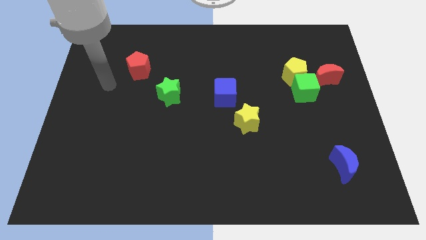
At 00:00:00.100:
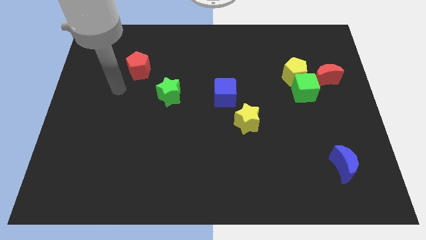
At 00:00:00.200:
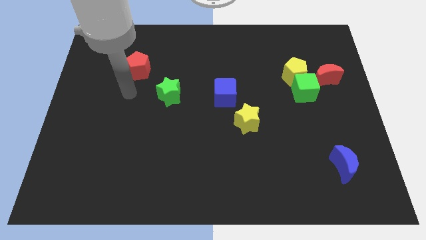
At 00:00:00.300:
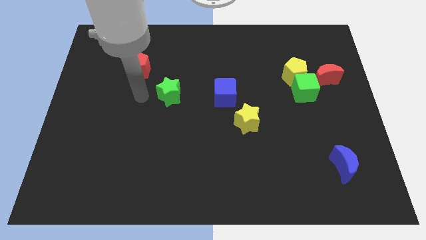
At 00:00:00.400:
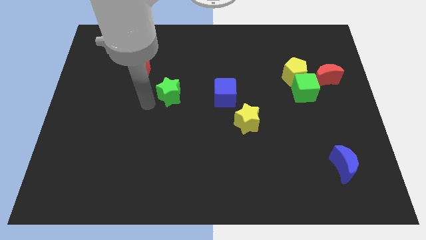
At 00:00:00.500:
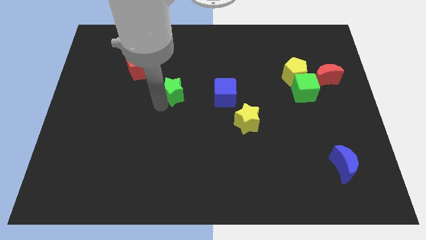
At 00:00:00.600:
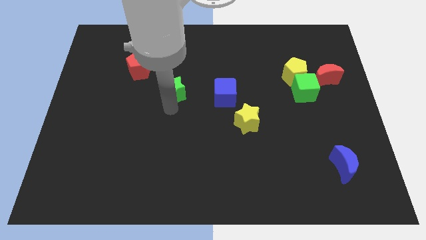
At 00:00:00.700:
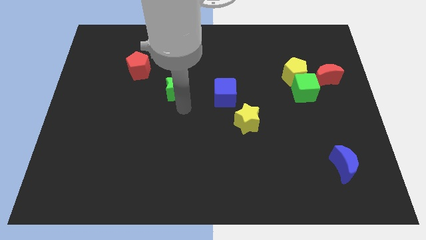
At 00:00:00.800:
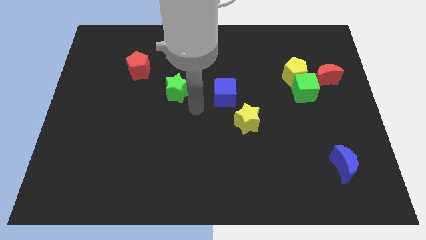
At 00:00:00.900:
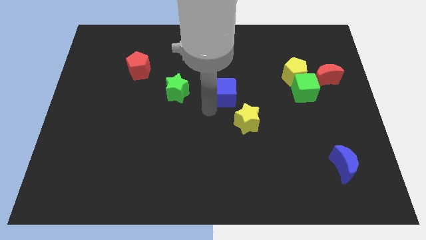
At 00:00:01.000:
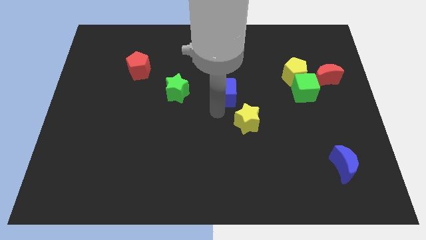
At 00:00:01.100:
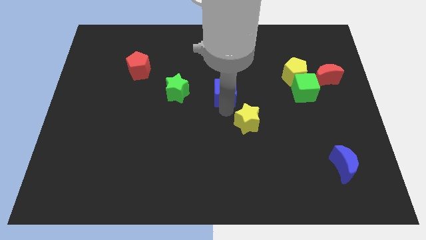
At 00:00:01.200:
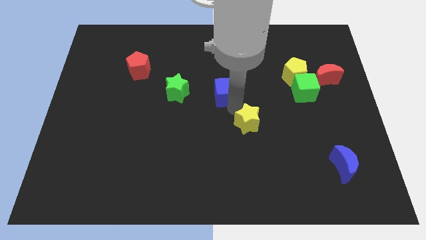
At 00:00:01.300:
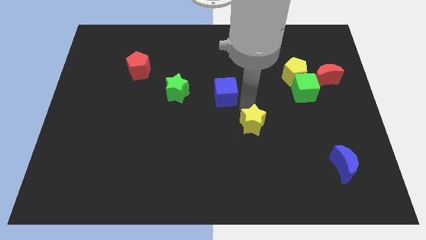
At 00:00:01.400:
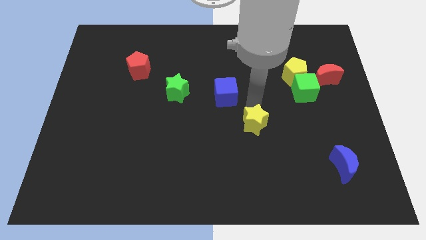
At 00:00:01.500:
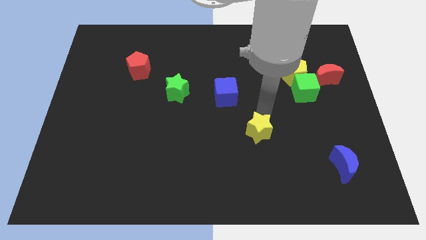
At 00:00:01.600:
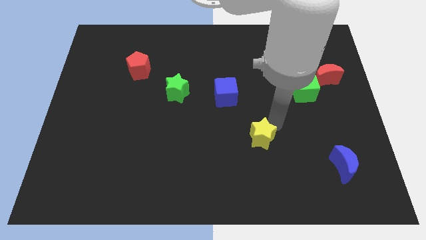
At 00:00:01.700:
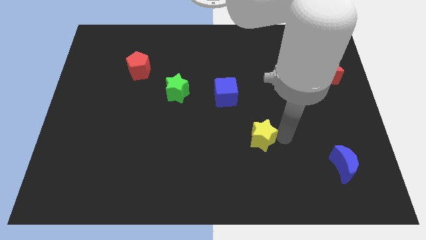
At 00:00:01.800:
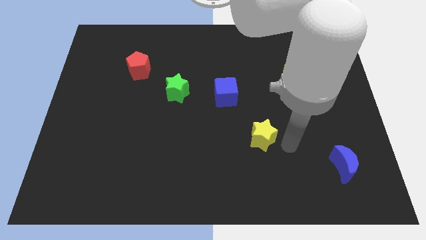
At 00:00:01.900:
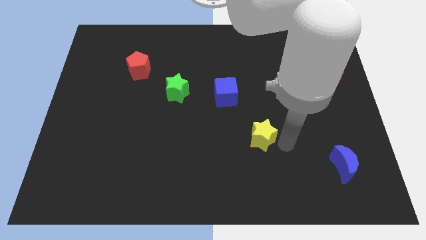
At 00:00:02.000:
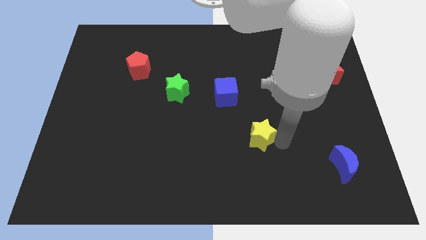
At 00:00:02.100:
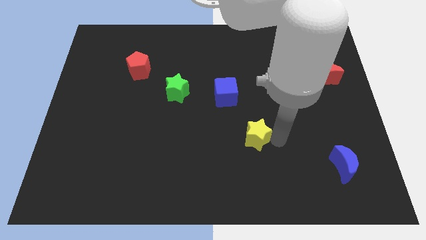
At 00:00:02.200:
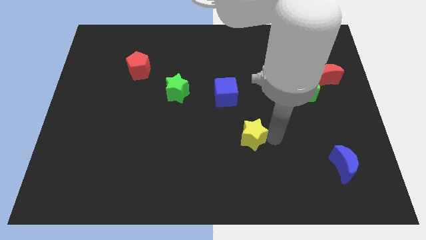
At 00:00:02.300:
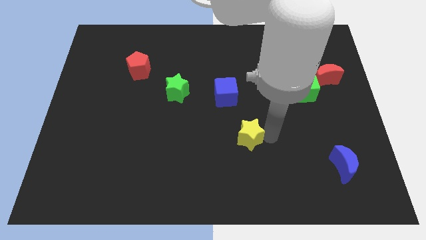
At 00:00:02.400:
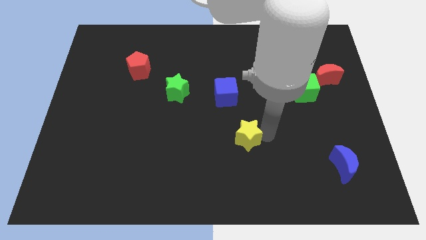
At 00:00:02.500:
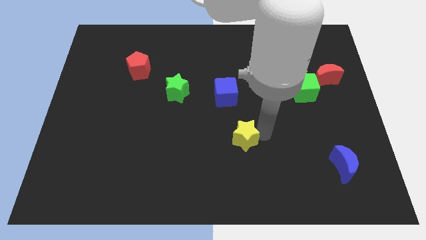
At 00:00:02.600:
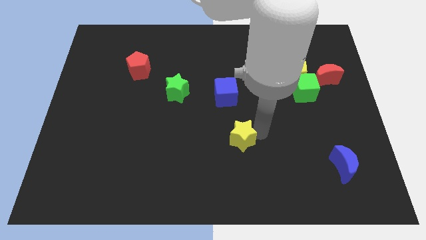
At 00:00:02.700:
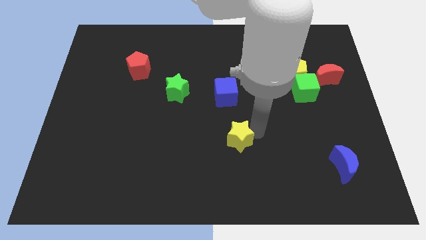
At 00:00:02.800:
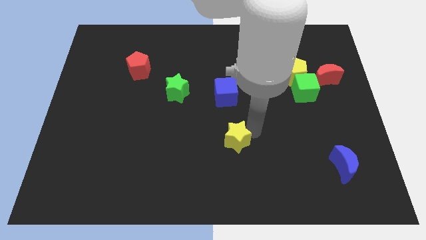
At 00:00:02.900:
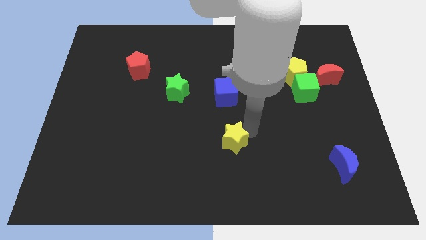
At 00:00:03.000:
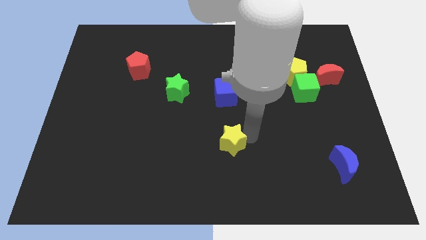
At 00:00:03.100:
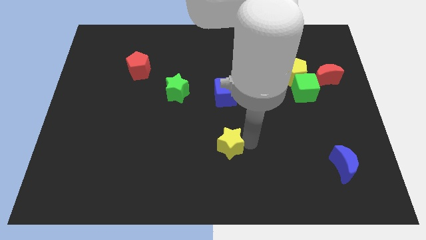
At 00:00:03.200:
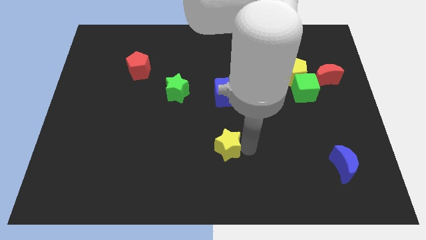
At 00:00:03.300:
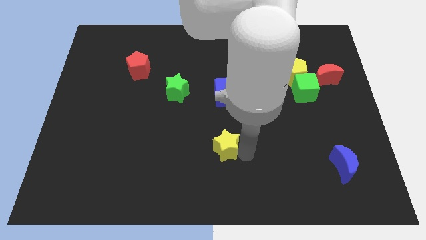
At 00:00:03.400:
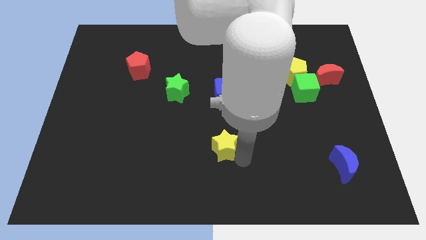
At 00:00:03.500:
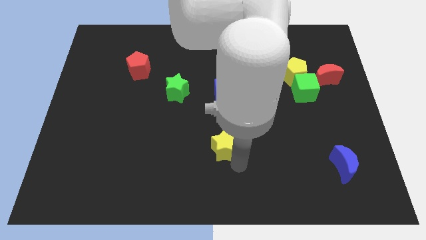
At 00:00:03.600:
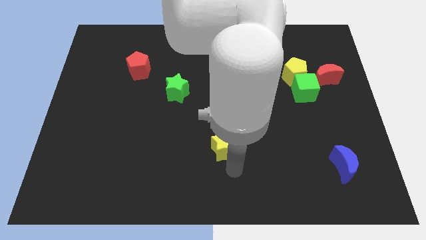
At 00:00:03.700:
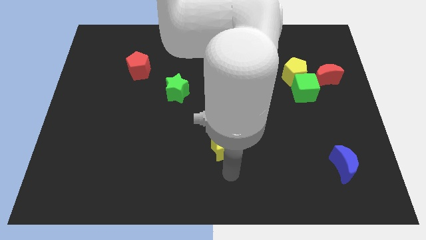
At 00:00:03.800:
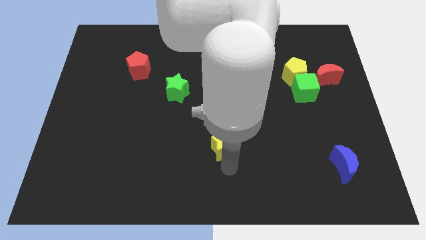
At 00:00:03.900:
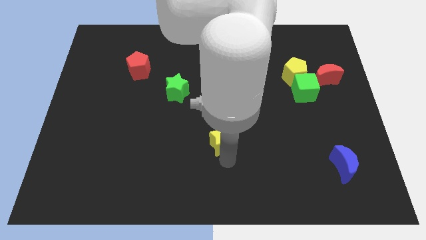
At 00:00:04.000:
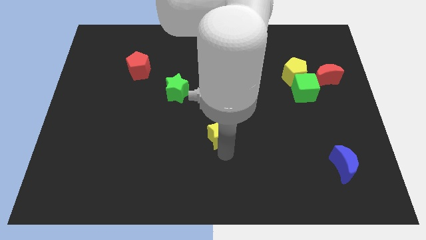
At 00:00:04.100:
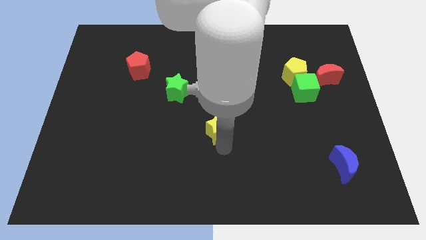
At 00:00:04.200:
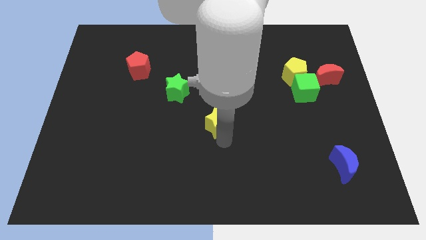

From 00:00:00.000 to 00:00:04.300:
slightly slide the yellow star left

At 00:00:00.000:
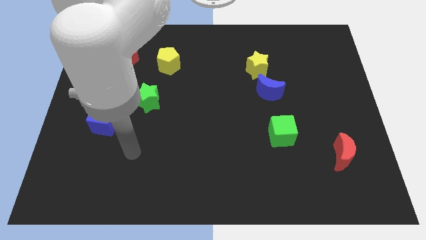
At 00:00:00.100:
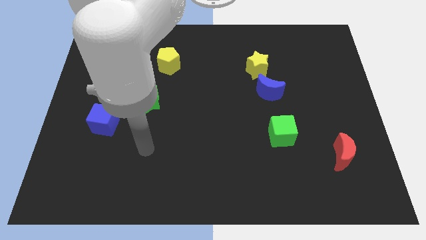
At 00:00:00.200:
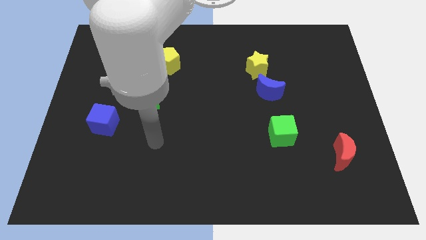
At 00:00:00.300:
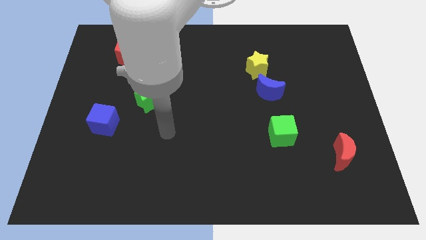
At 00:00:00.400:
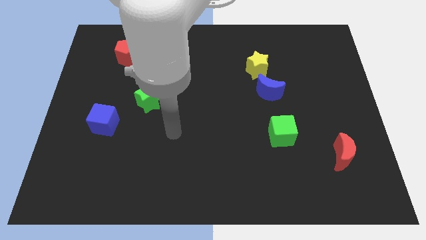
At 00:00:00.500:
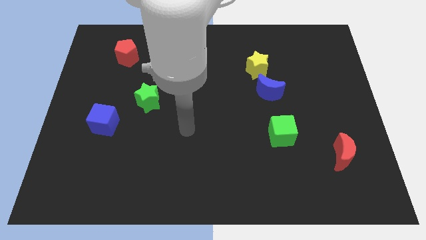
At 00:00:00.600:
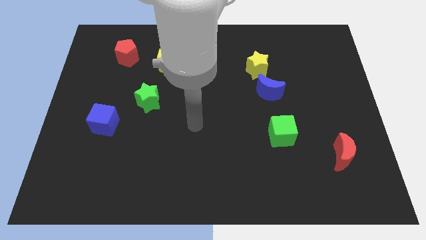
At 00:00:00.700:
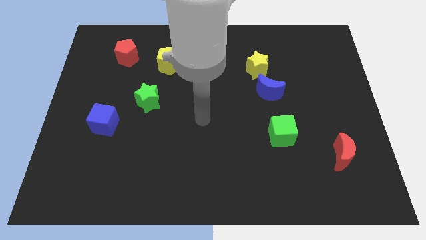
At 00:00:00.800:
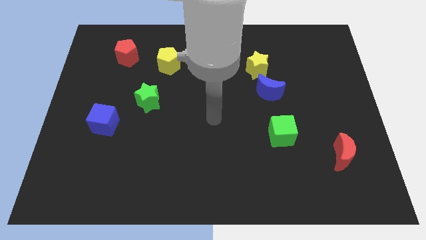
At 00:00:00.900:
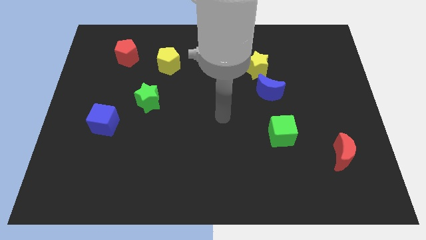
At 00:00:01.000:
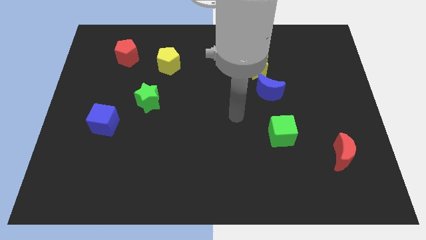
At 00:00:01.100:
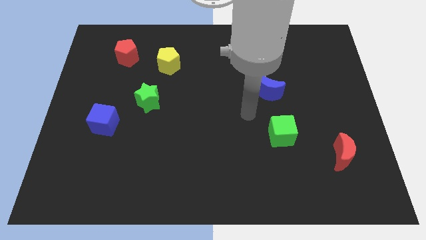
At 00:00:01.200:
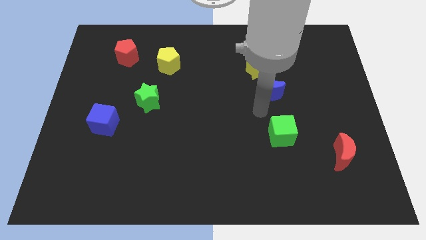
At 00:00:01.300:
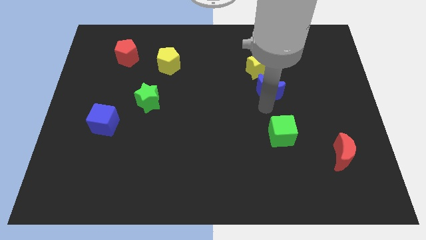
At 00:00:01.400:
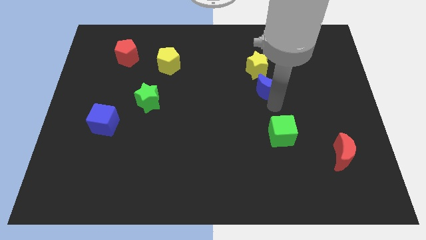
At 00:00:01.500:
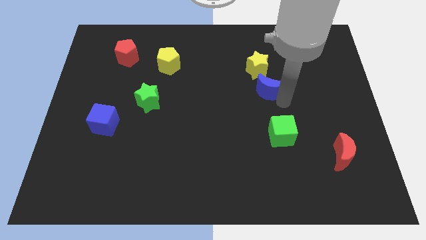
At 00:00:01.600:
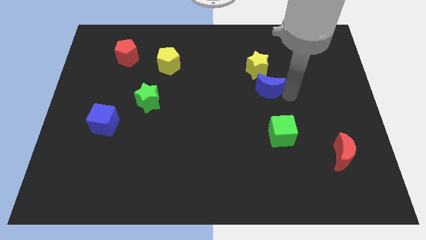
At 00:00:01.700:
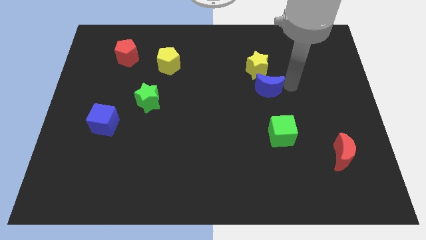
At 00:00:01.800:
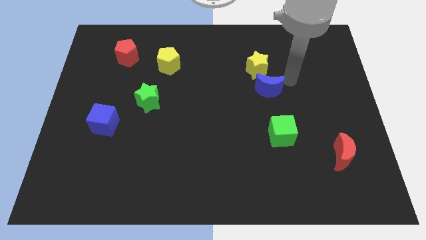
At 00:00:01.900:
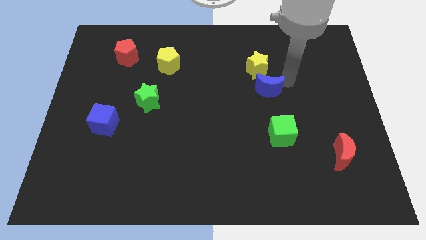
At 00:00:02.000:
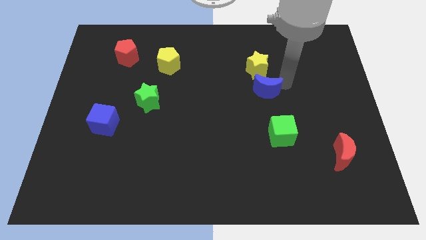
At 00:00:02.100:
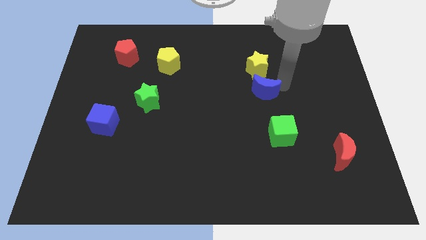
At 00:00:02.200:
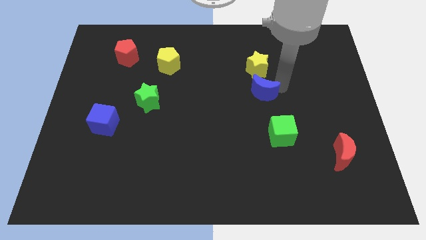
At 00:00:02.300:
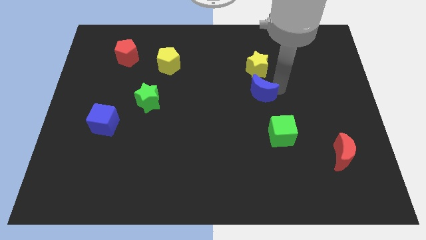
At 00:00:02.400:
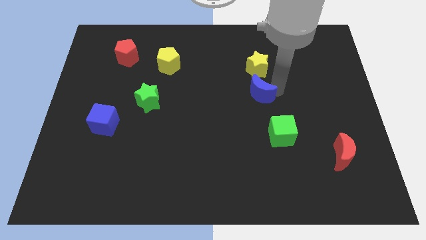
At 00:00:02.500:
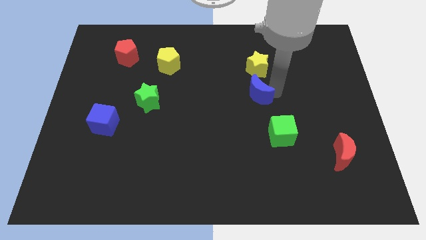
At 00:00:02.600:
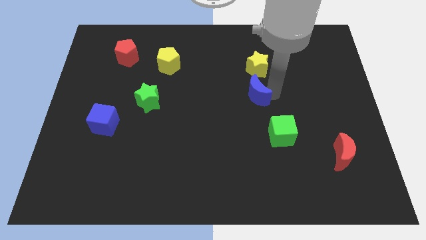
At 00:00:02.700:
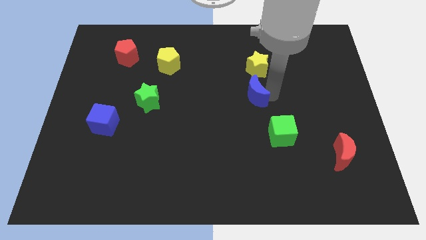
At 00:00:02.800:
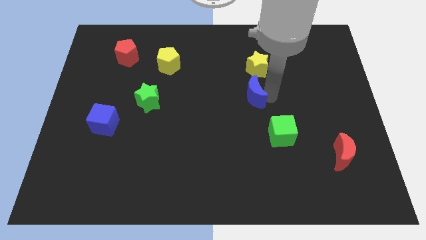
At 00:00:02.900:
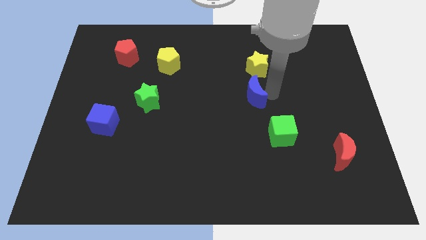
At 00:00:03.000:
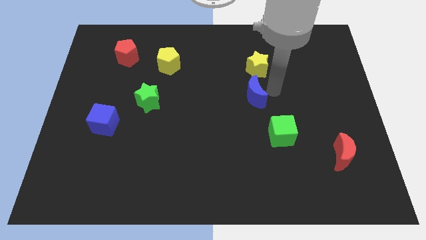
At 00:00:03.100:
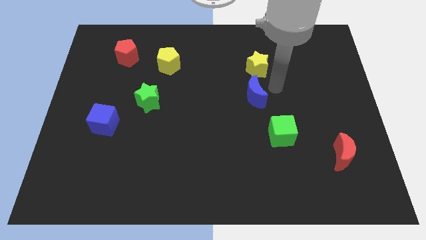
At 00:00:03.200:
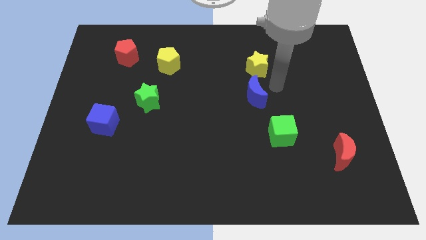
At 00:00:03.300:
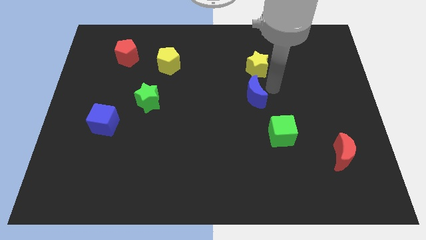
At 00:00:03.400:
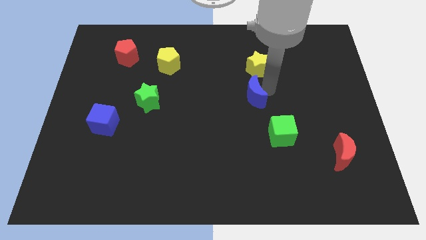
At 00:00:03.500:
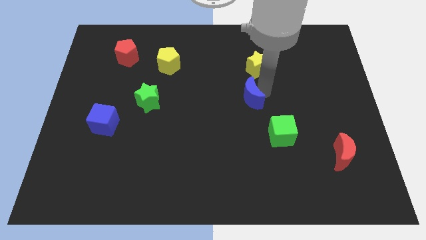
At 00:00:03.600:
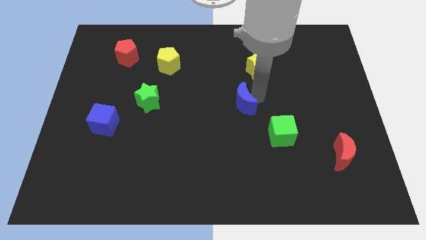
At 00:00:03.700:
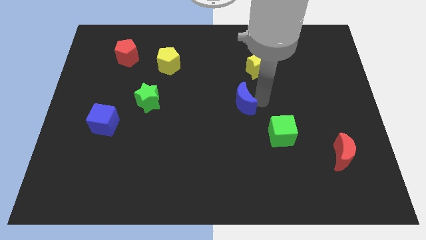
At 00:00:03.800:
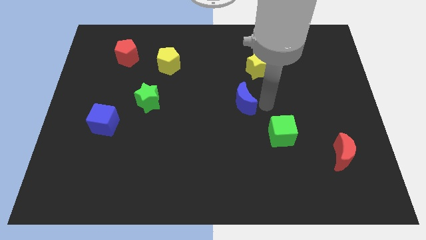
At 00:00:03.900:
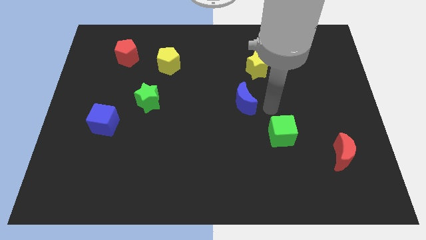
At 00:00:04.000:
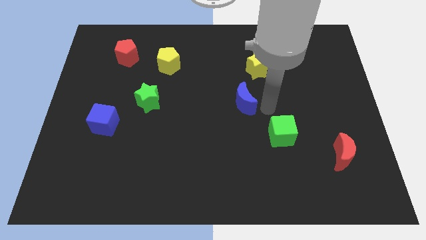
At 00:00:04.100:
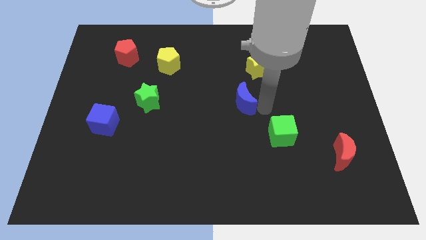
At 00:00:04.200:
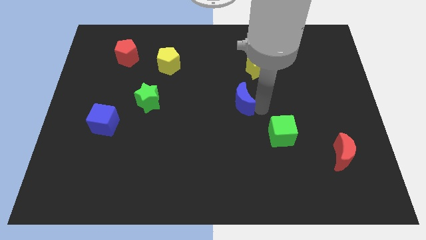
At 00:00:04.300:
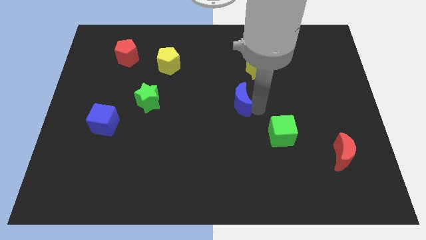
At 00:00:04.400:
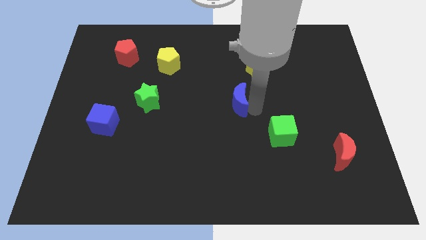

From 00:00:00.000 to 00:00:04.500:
move the blue moon a bit left
